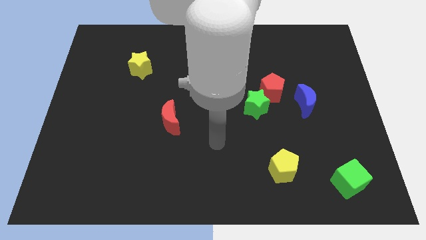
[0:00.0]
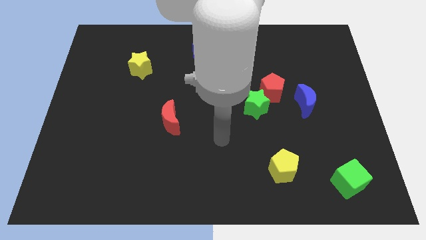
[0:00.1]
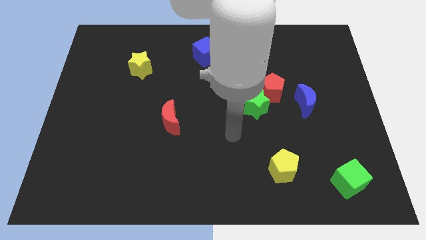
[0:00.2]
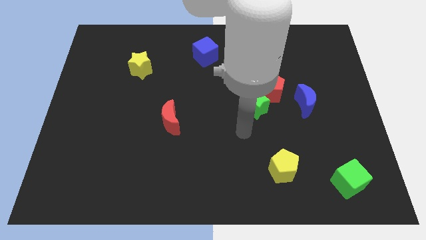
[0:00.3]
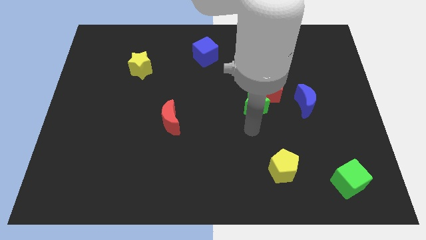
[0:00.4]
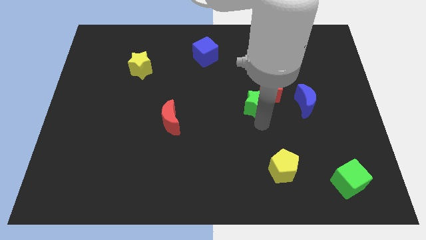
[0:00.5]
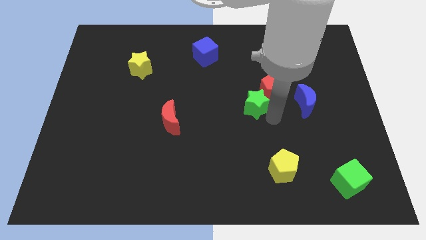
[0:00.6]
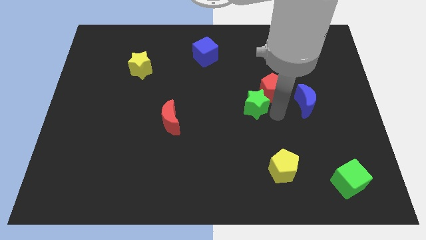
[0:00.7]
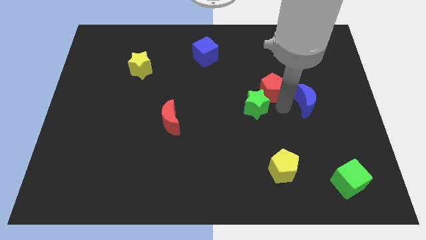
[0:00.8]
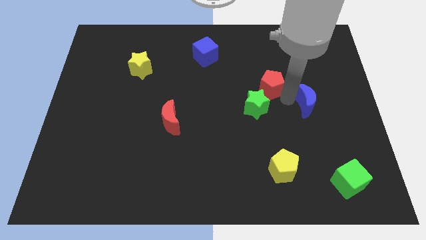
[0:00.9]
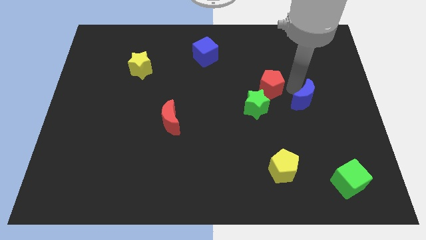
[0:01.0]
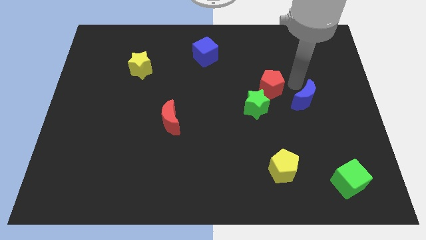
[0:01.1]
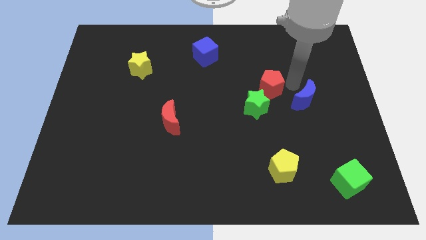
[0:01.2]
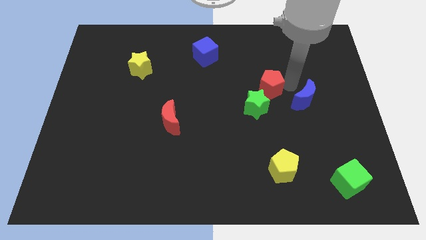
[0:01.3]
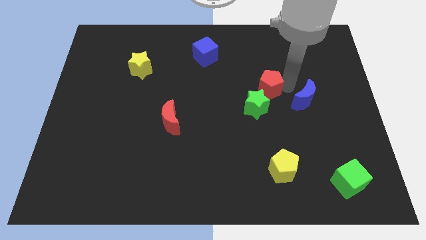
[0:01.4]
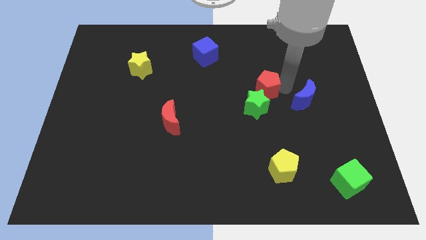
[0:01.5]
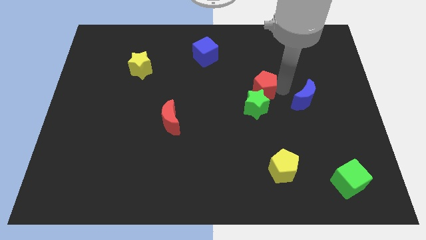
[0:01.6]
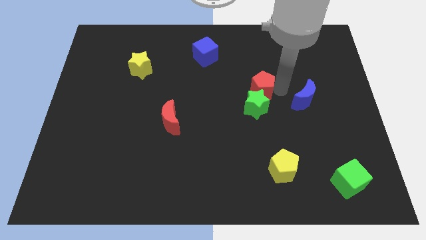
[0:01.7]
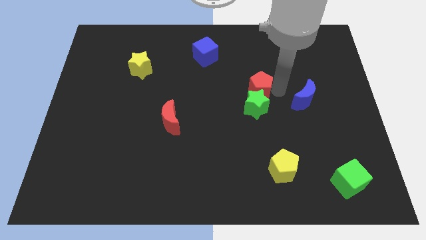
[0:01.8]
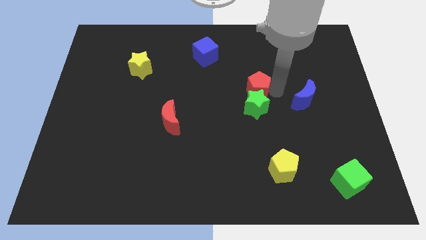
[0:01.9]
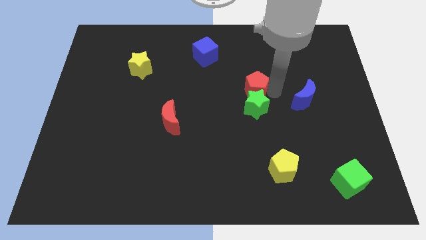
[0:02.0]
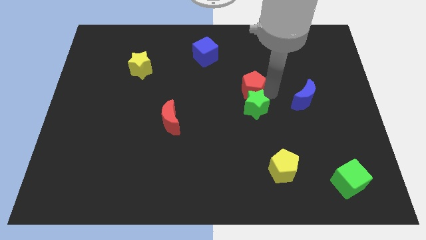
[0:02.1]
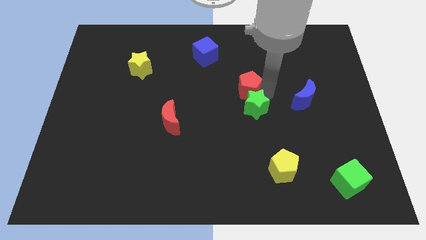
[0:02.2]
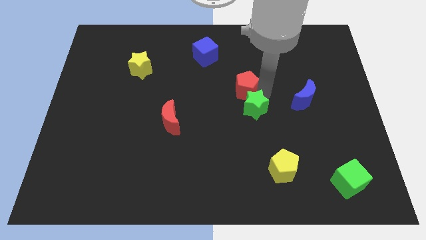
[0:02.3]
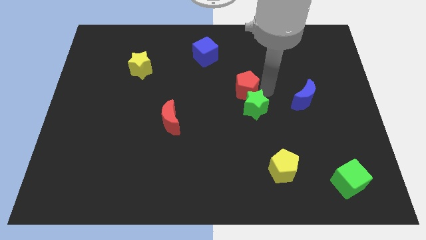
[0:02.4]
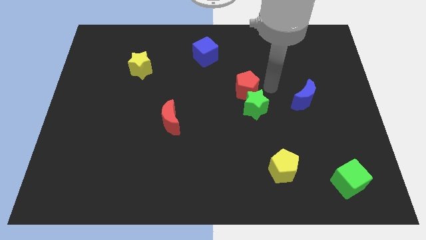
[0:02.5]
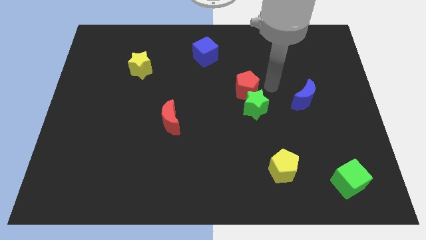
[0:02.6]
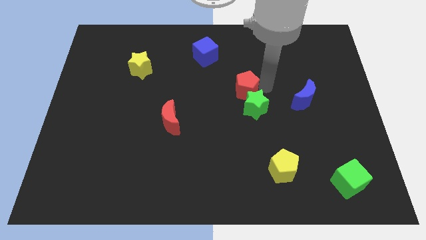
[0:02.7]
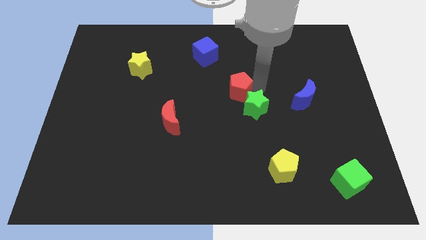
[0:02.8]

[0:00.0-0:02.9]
slightly slide the red pentagon to the left

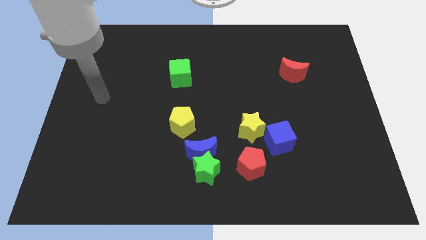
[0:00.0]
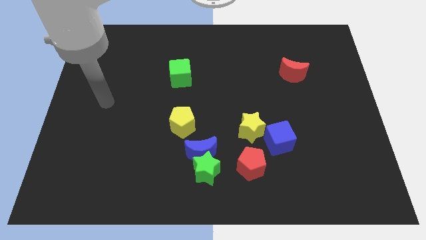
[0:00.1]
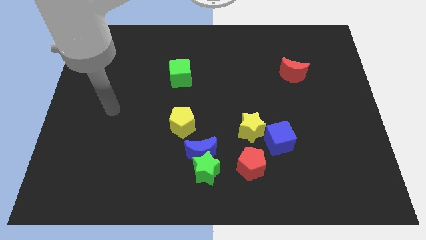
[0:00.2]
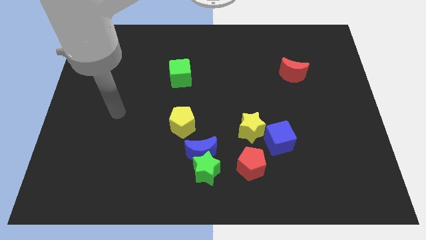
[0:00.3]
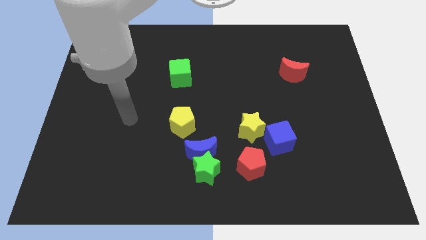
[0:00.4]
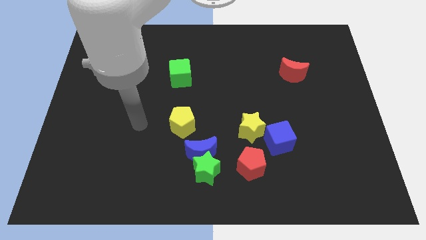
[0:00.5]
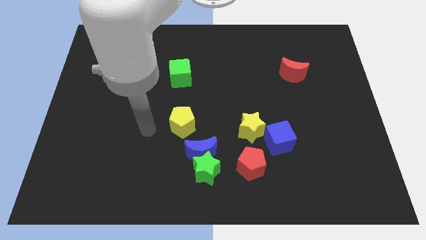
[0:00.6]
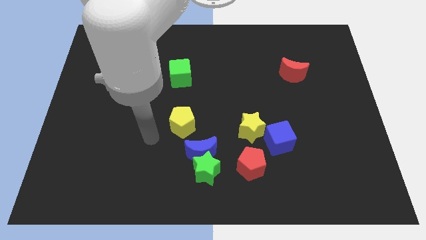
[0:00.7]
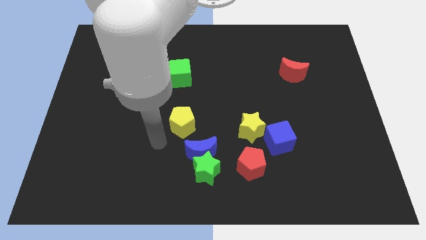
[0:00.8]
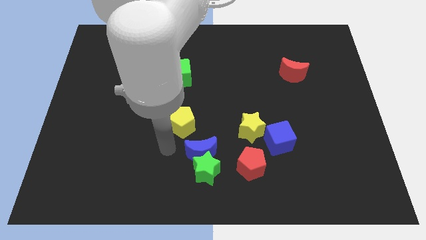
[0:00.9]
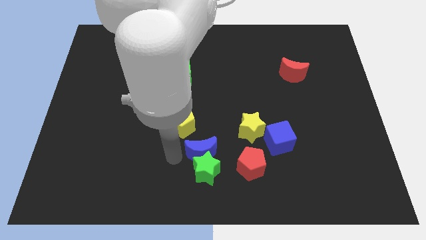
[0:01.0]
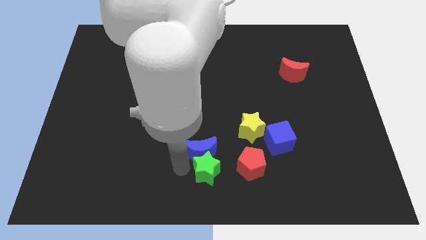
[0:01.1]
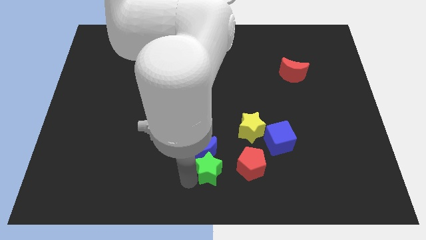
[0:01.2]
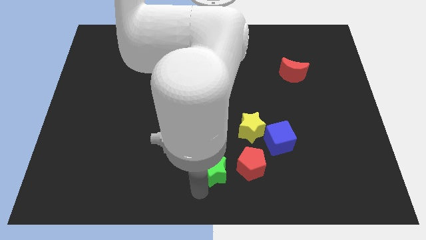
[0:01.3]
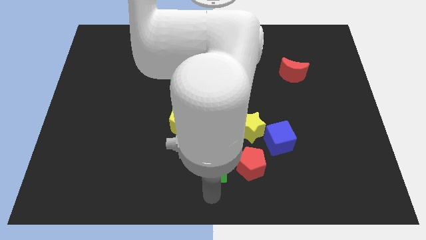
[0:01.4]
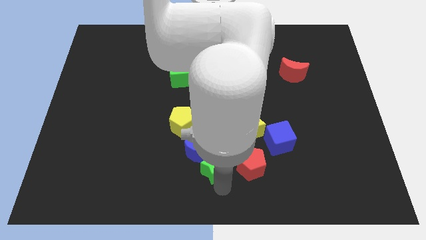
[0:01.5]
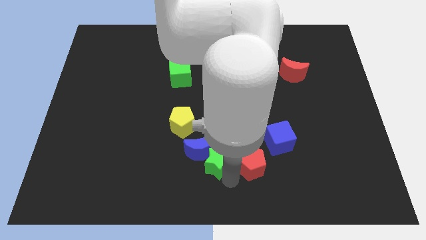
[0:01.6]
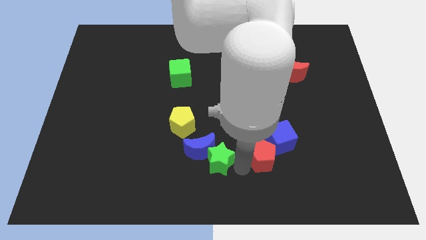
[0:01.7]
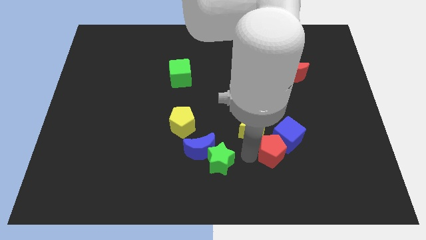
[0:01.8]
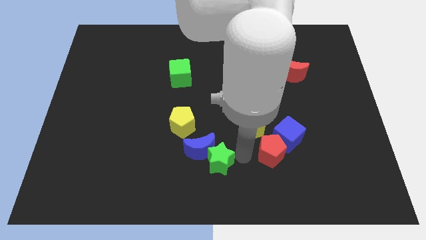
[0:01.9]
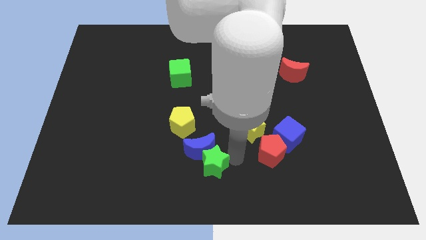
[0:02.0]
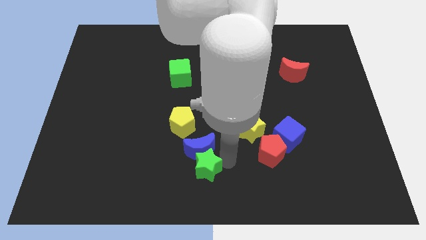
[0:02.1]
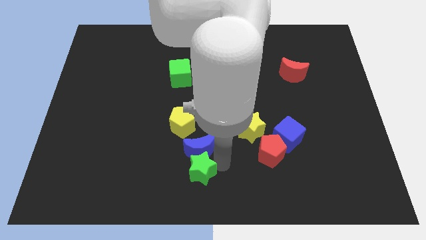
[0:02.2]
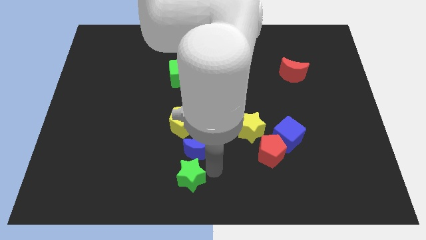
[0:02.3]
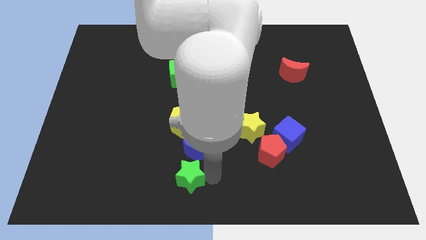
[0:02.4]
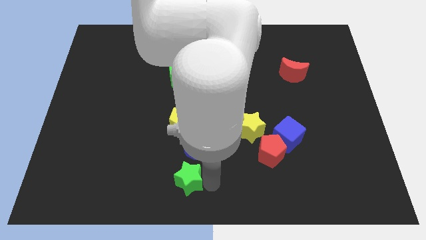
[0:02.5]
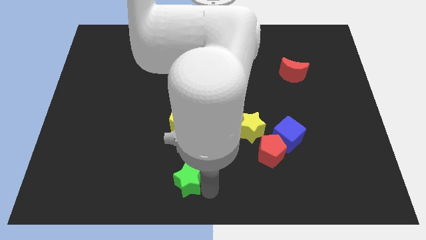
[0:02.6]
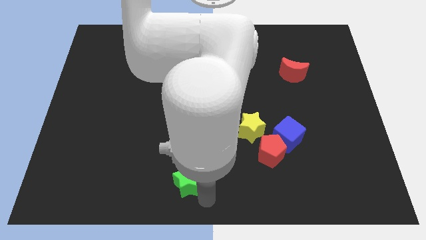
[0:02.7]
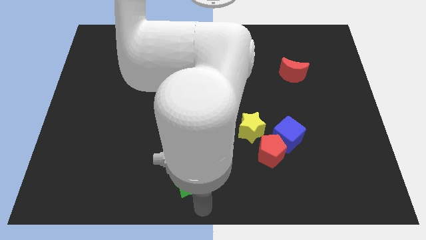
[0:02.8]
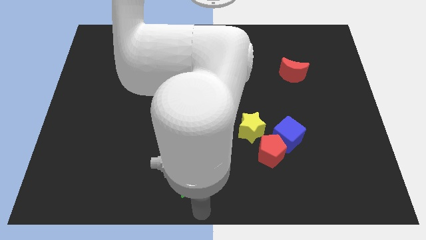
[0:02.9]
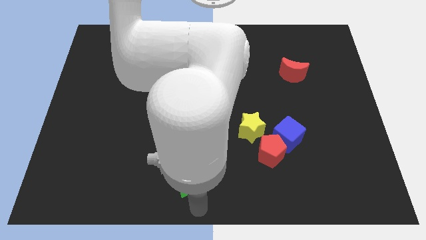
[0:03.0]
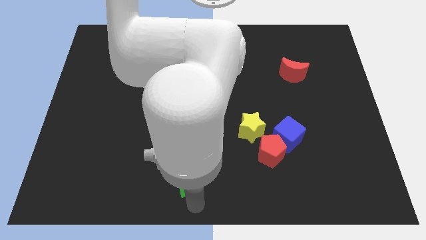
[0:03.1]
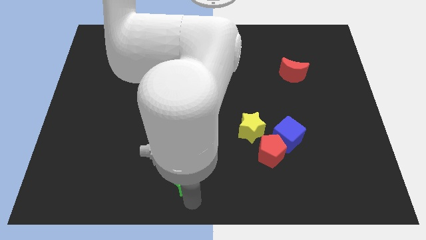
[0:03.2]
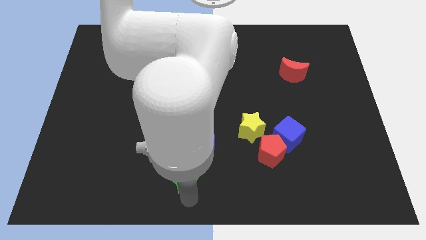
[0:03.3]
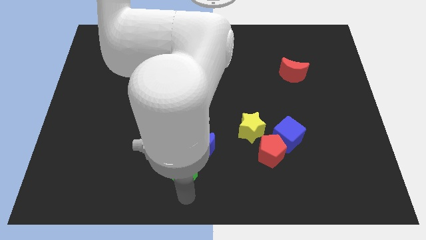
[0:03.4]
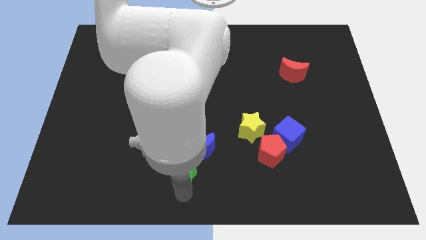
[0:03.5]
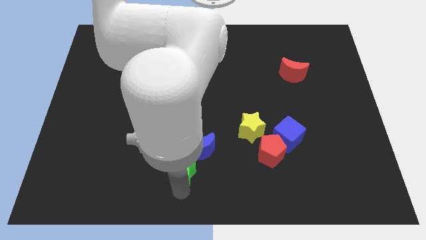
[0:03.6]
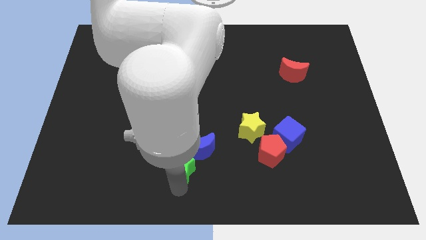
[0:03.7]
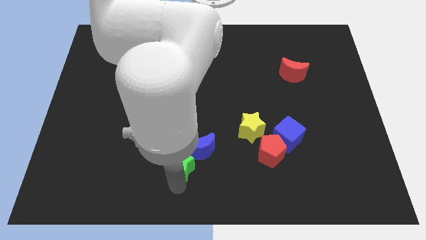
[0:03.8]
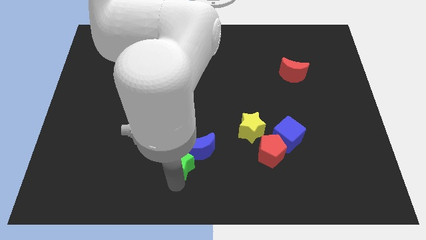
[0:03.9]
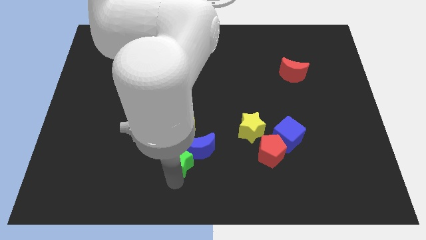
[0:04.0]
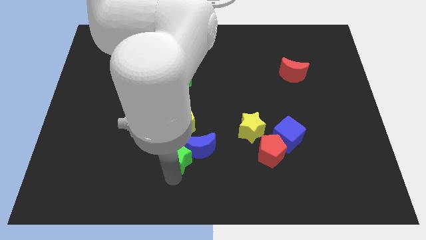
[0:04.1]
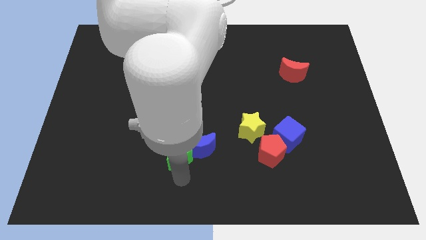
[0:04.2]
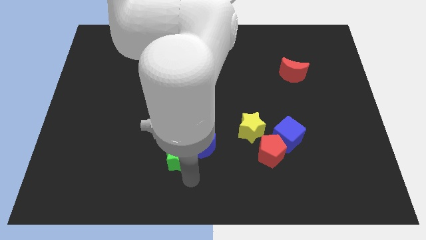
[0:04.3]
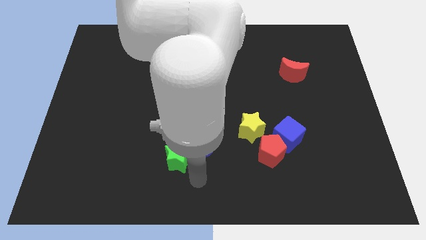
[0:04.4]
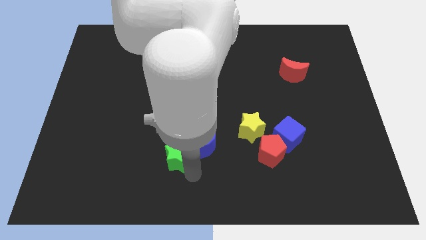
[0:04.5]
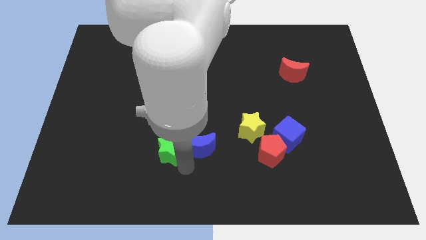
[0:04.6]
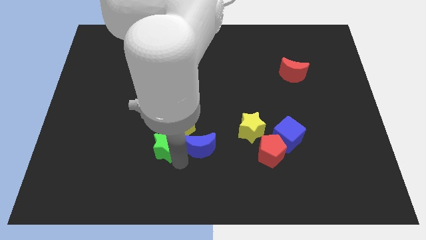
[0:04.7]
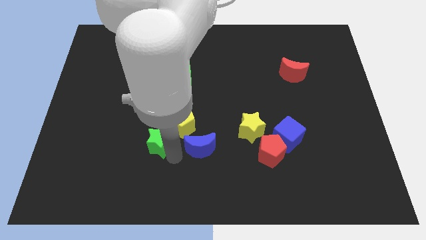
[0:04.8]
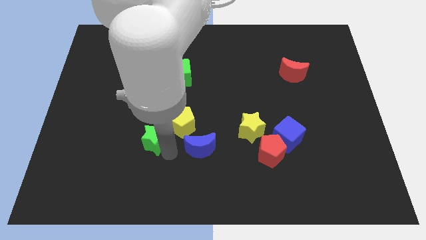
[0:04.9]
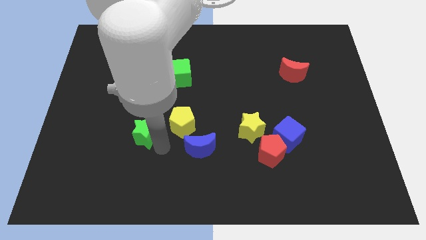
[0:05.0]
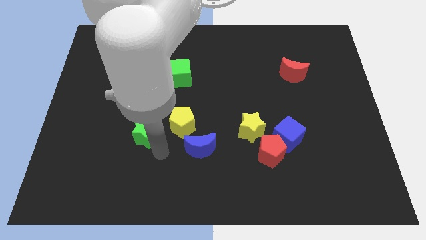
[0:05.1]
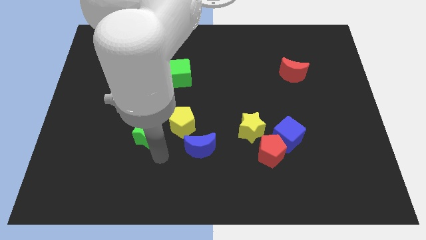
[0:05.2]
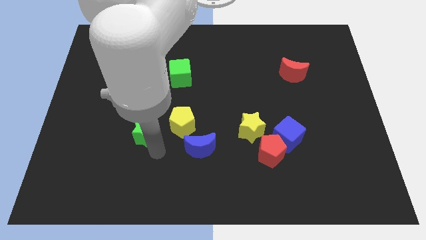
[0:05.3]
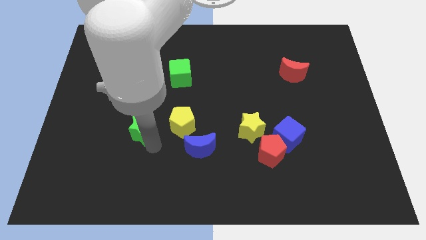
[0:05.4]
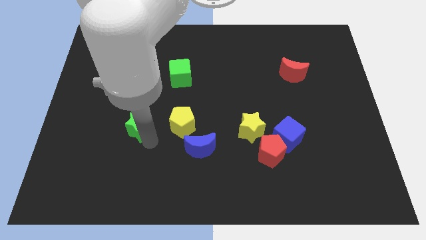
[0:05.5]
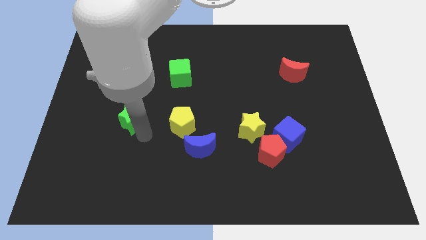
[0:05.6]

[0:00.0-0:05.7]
push the green star up and to the left diagonally
